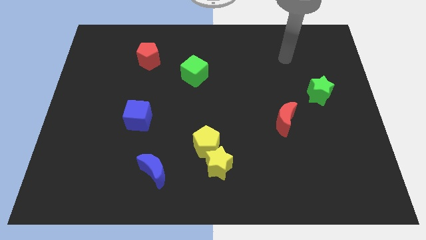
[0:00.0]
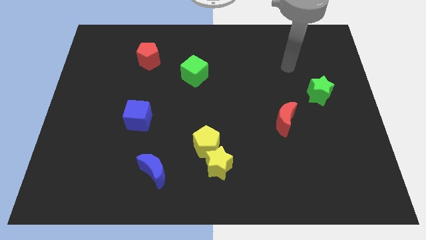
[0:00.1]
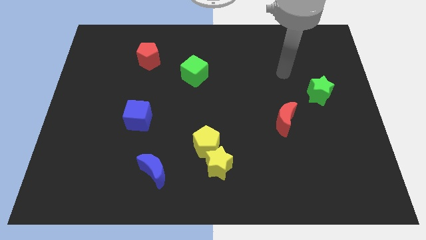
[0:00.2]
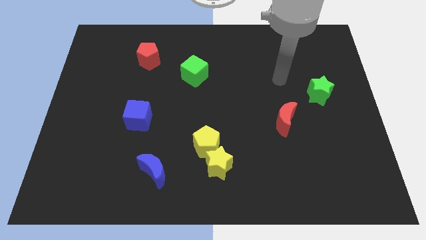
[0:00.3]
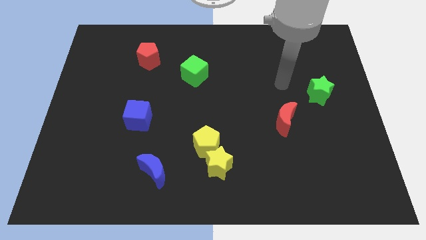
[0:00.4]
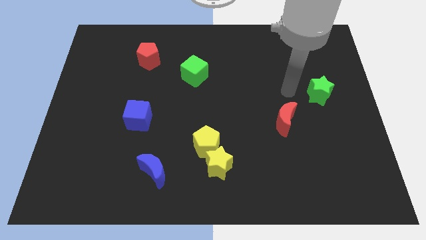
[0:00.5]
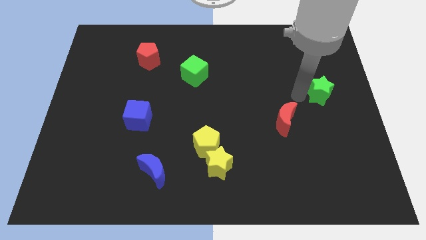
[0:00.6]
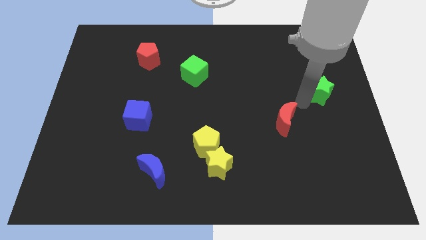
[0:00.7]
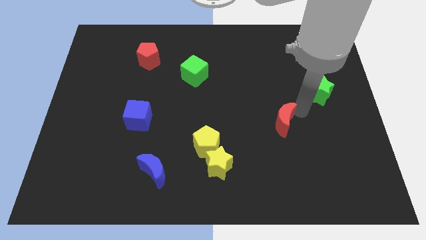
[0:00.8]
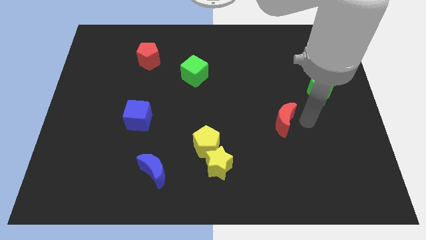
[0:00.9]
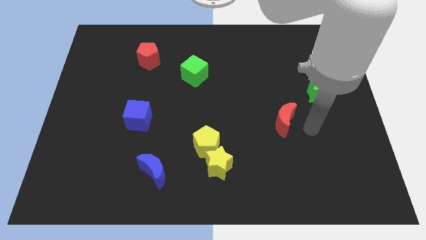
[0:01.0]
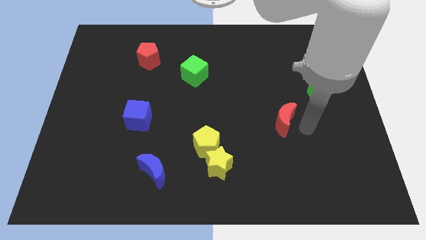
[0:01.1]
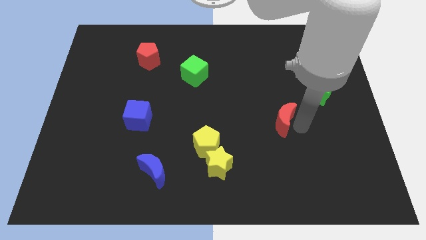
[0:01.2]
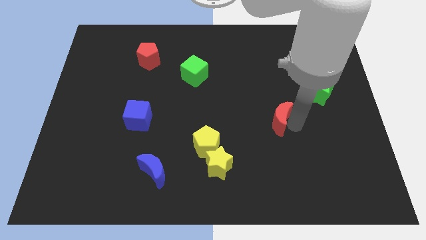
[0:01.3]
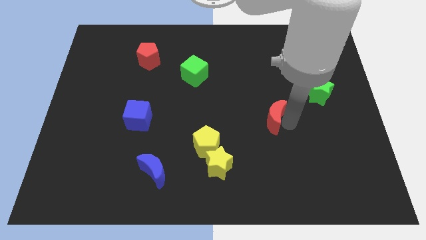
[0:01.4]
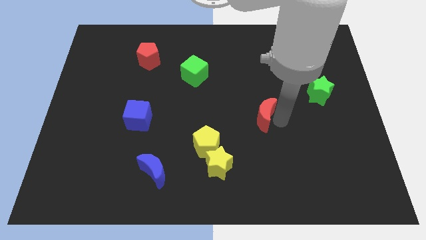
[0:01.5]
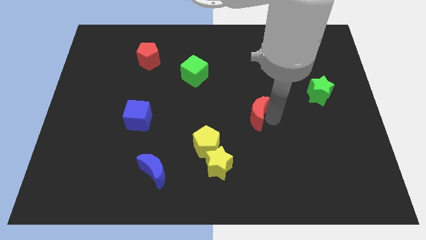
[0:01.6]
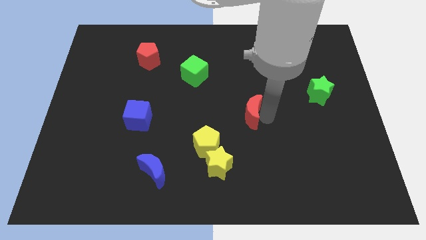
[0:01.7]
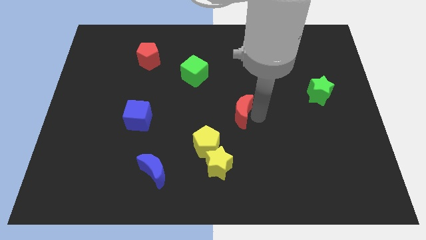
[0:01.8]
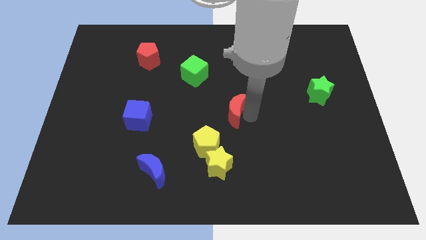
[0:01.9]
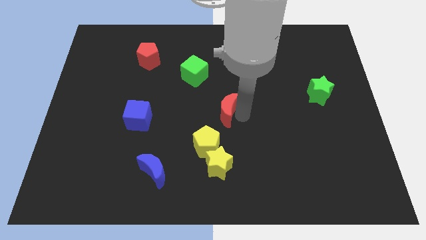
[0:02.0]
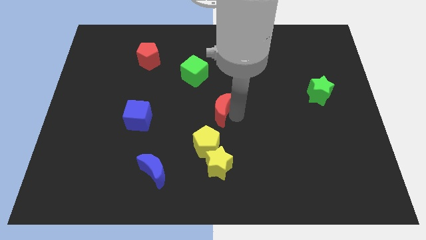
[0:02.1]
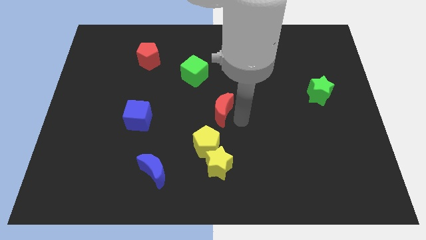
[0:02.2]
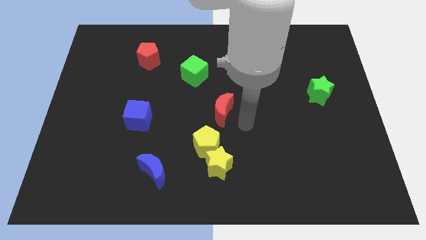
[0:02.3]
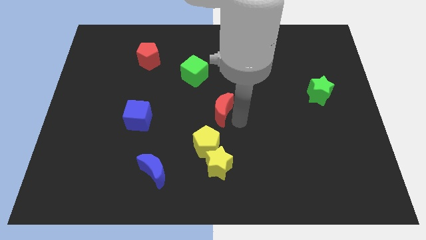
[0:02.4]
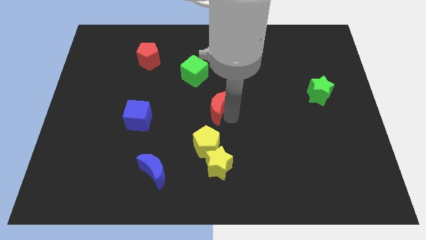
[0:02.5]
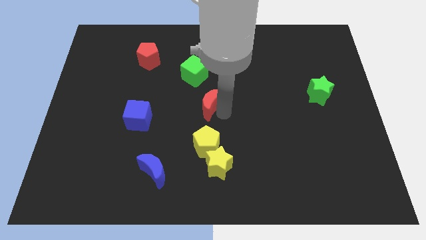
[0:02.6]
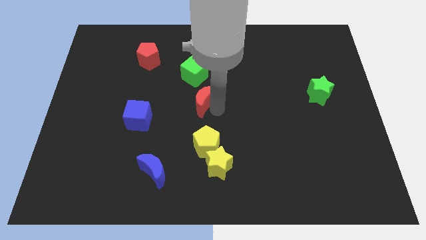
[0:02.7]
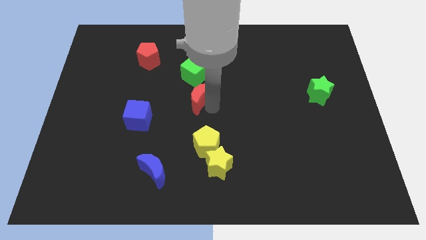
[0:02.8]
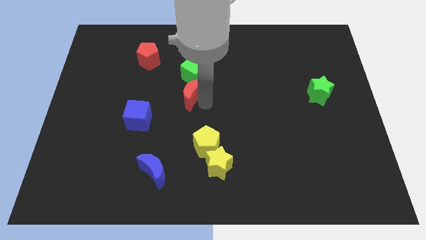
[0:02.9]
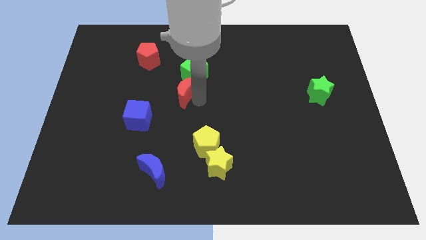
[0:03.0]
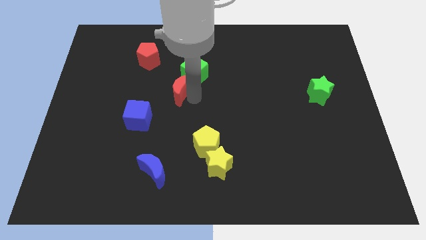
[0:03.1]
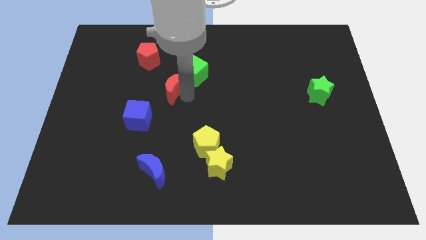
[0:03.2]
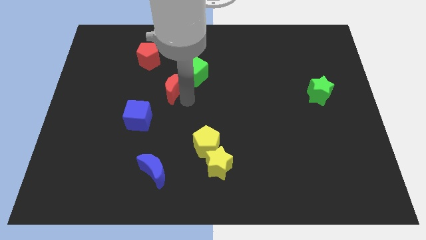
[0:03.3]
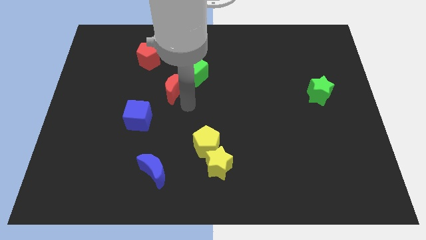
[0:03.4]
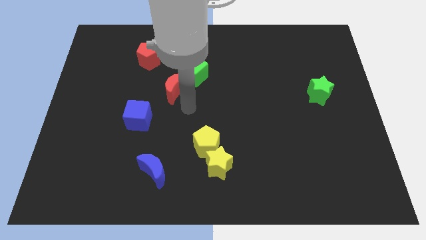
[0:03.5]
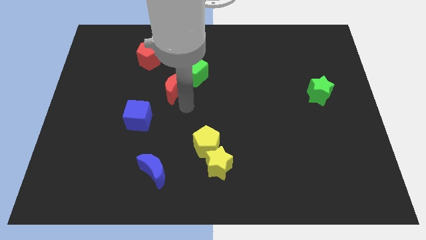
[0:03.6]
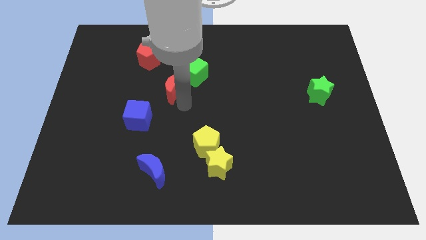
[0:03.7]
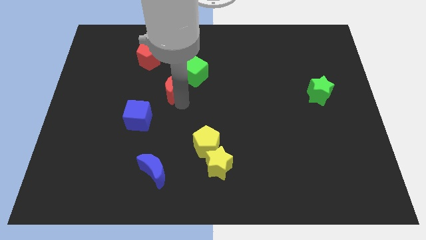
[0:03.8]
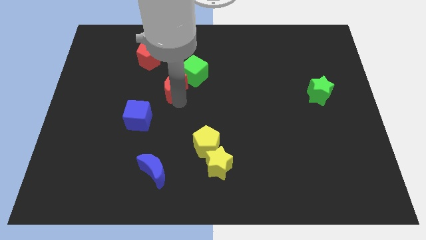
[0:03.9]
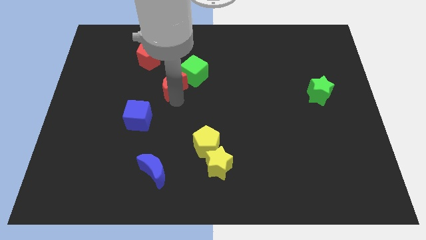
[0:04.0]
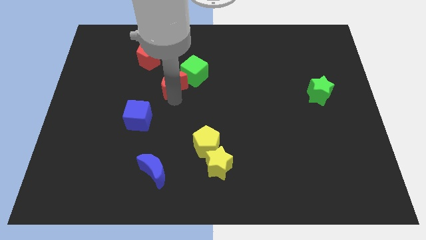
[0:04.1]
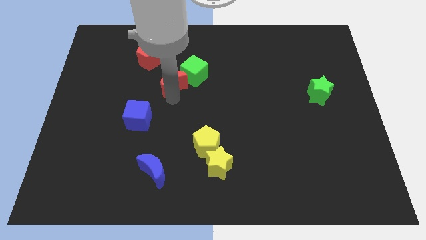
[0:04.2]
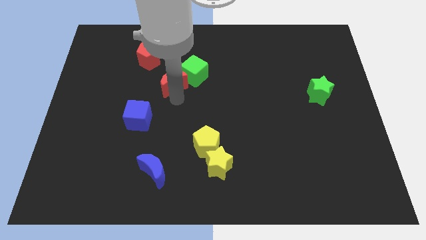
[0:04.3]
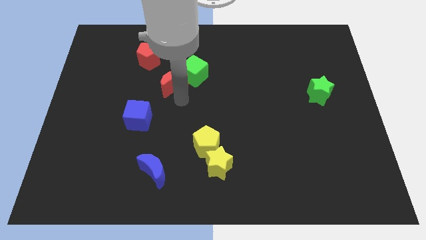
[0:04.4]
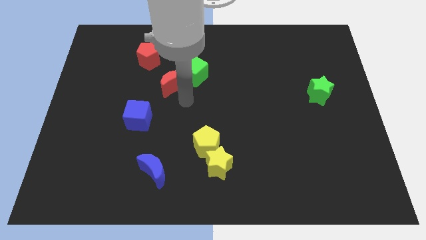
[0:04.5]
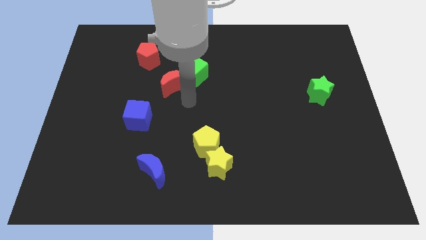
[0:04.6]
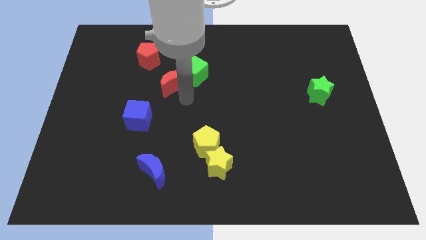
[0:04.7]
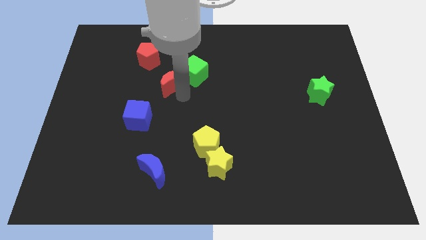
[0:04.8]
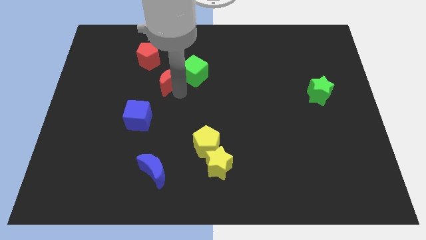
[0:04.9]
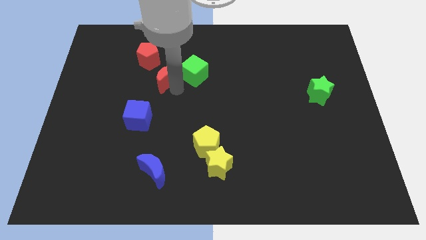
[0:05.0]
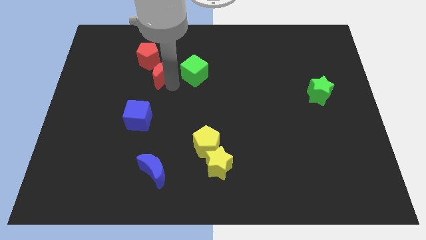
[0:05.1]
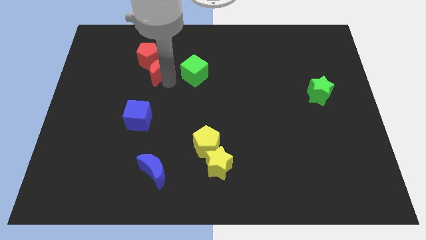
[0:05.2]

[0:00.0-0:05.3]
push the red moon close to the red pentagon

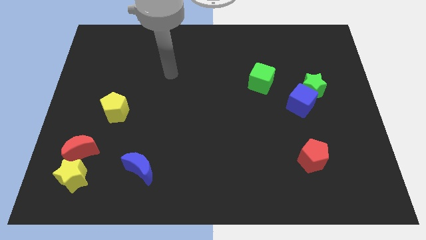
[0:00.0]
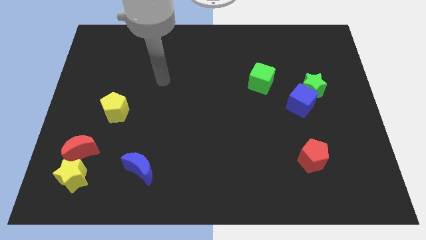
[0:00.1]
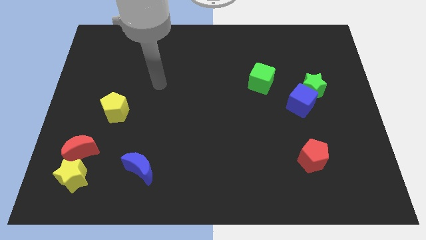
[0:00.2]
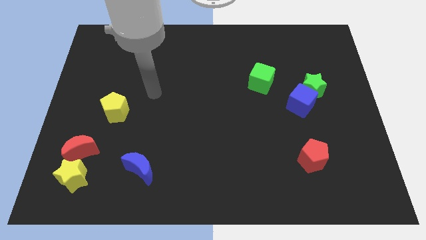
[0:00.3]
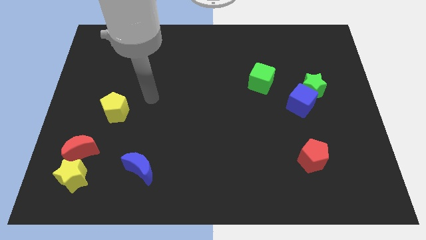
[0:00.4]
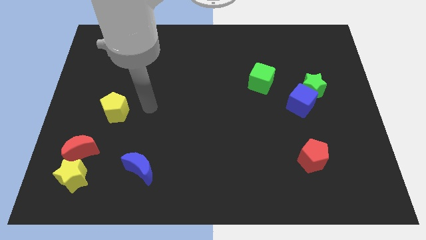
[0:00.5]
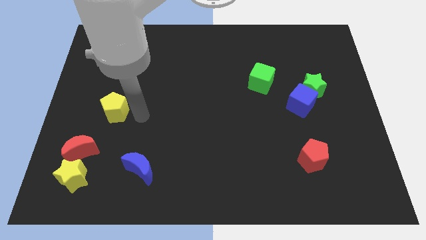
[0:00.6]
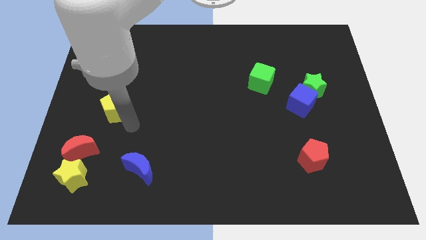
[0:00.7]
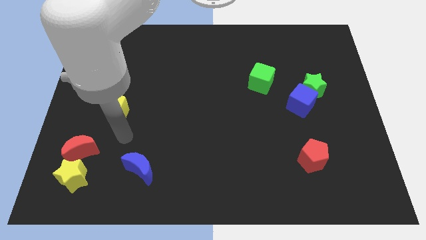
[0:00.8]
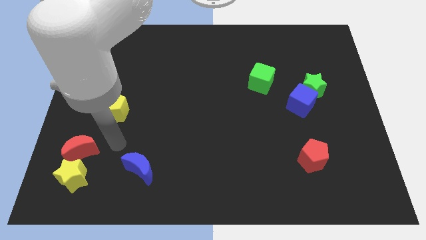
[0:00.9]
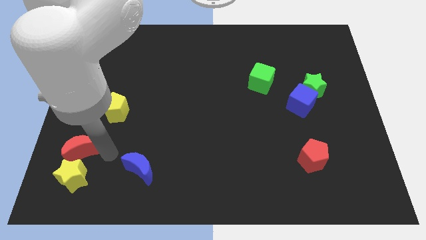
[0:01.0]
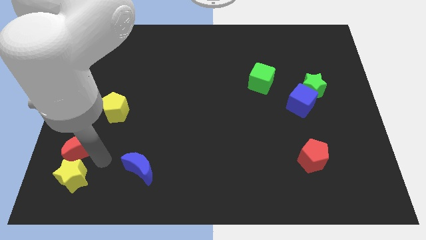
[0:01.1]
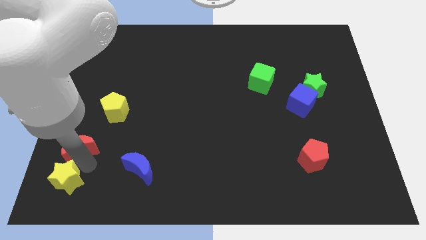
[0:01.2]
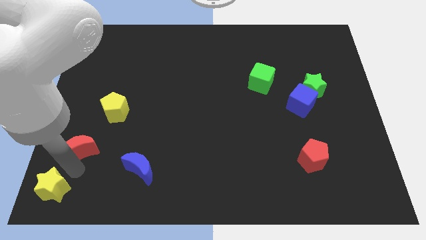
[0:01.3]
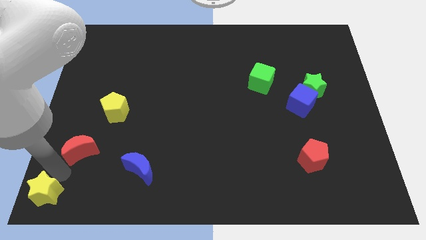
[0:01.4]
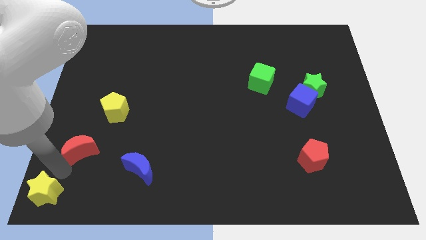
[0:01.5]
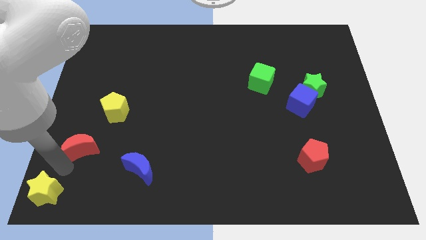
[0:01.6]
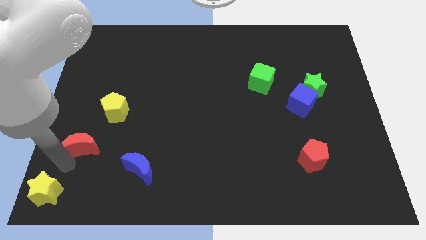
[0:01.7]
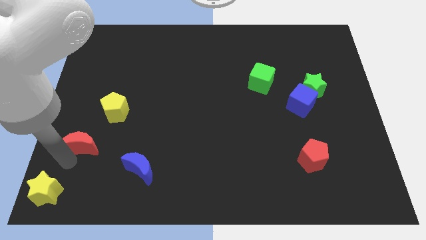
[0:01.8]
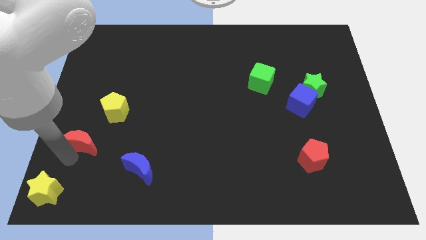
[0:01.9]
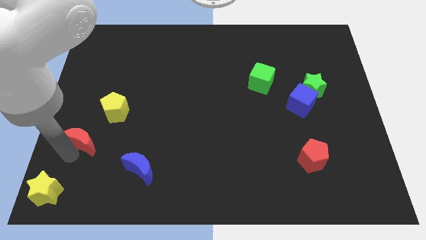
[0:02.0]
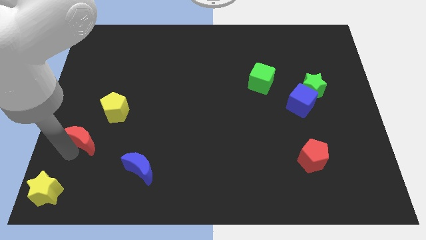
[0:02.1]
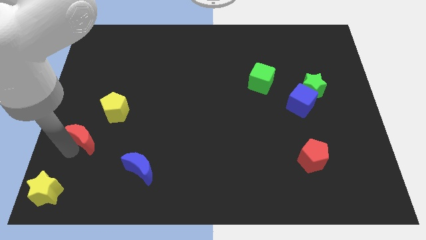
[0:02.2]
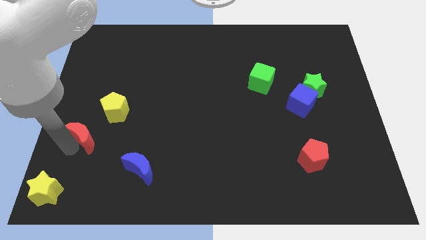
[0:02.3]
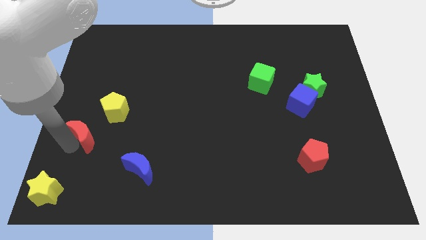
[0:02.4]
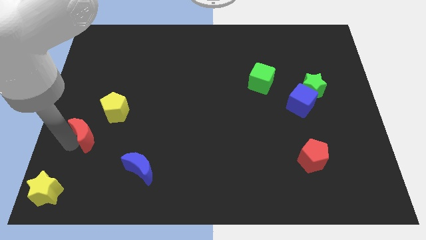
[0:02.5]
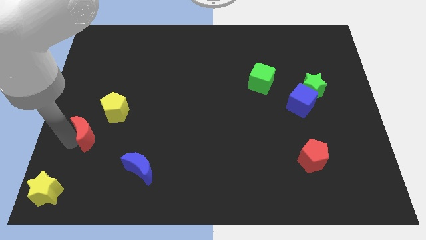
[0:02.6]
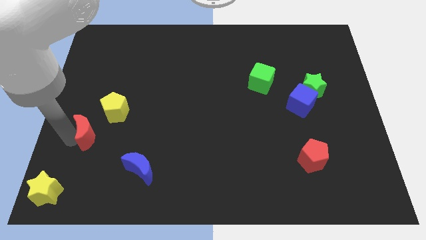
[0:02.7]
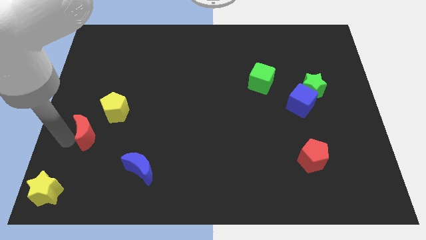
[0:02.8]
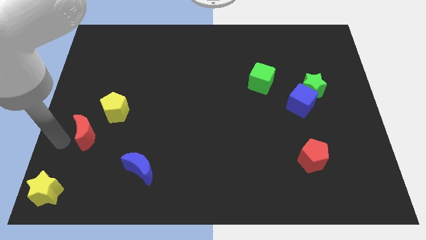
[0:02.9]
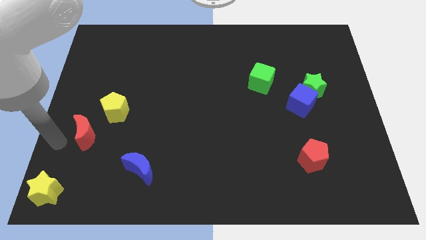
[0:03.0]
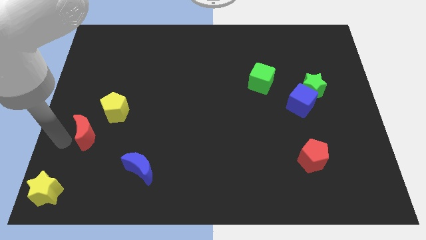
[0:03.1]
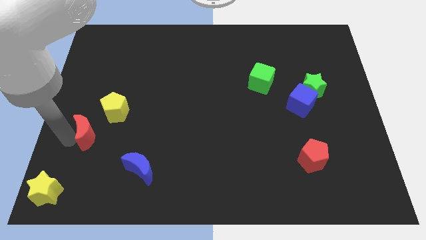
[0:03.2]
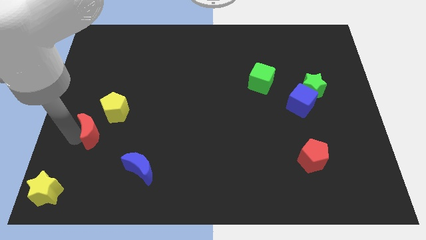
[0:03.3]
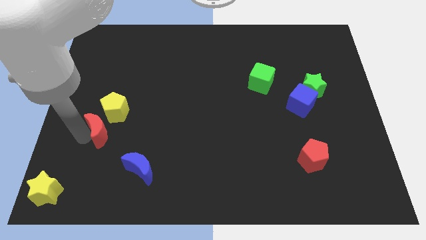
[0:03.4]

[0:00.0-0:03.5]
put the red moon close to the yellow pentagon
